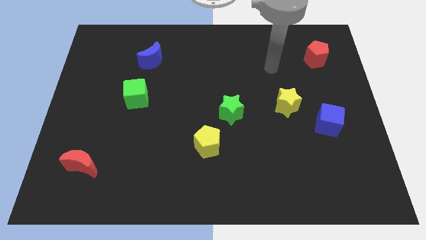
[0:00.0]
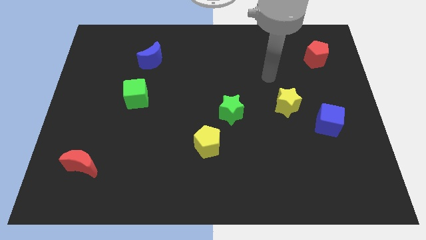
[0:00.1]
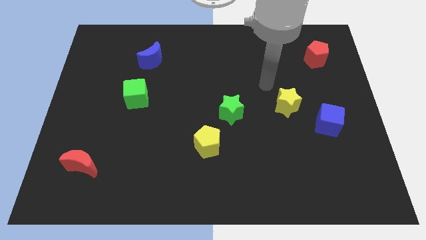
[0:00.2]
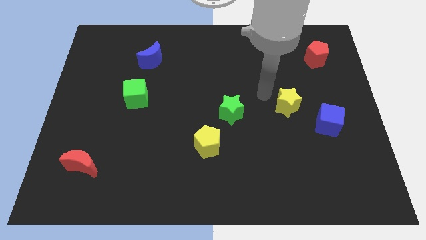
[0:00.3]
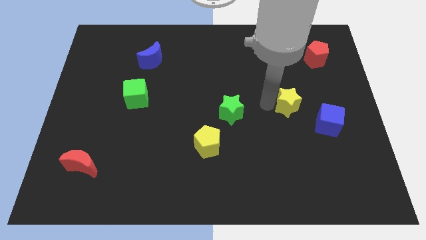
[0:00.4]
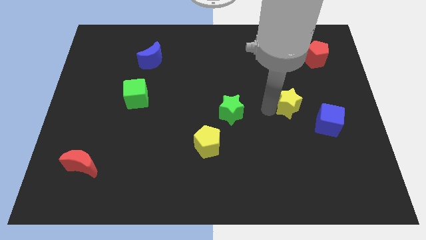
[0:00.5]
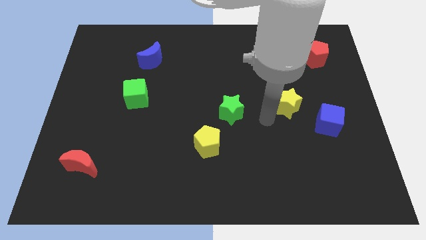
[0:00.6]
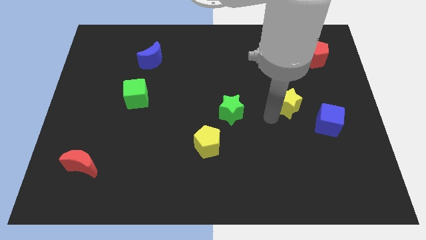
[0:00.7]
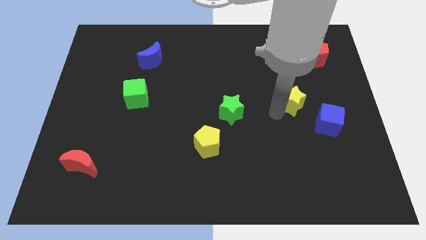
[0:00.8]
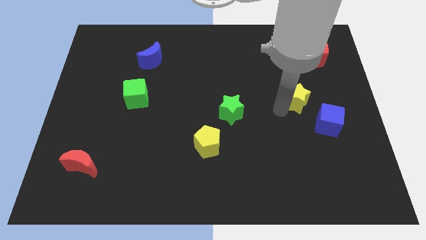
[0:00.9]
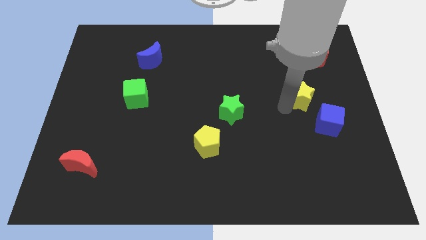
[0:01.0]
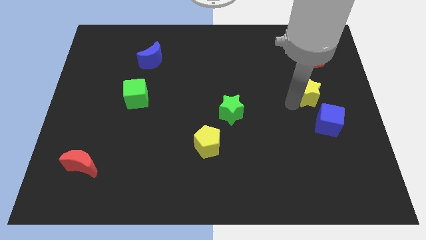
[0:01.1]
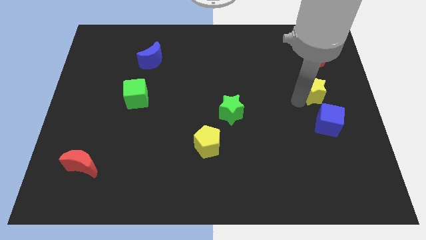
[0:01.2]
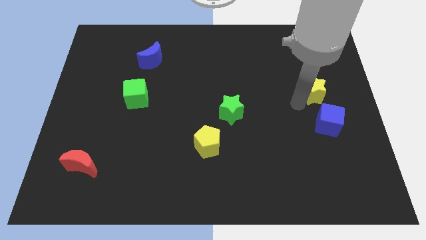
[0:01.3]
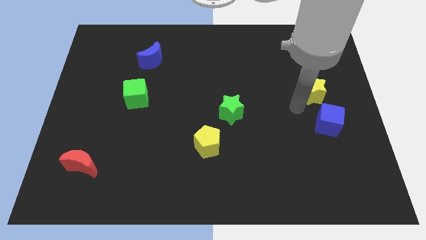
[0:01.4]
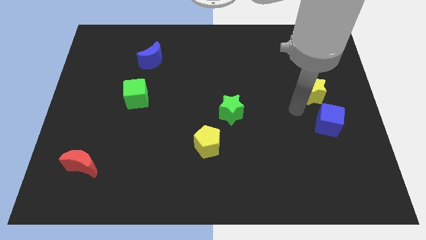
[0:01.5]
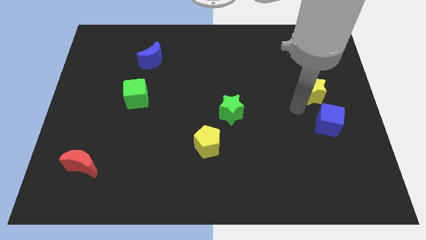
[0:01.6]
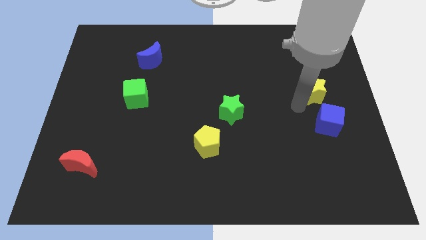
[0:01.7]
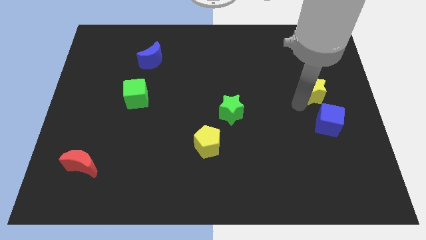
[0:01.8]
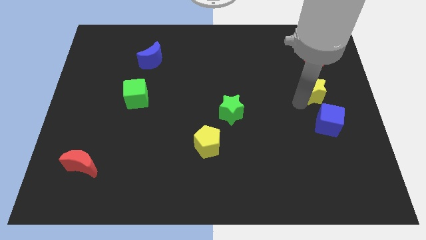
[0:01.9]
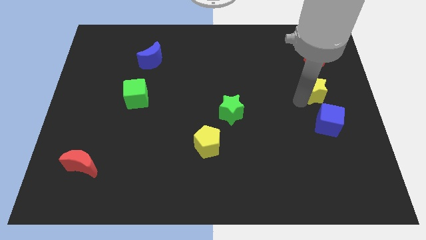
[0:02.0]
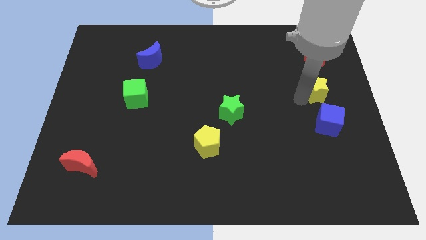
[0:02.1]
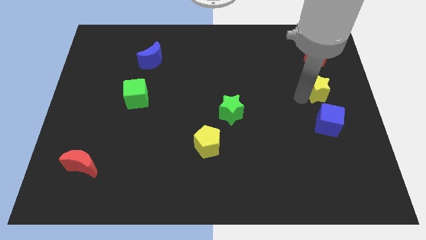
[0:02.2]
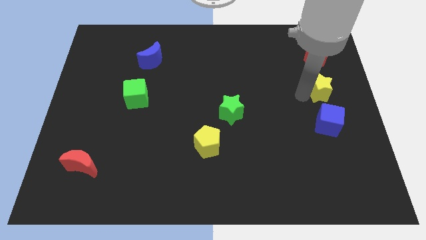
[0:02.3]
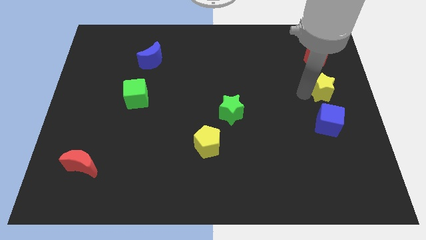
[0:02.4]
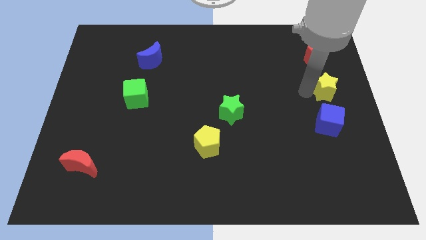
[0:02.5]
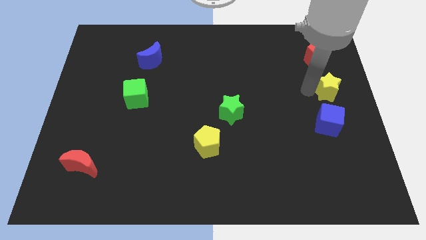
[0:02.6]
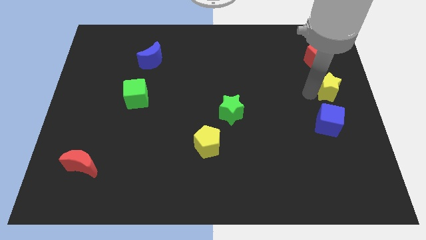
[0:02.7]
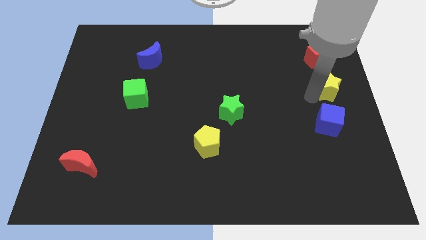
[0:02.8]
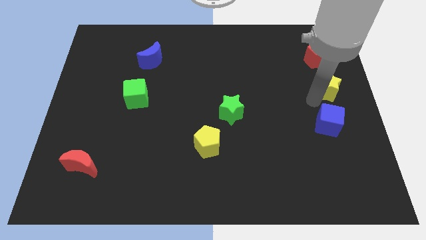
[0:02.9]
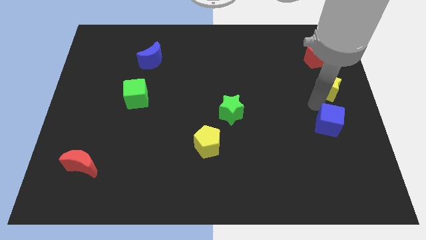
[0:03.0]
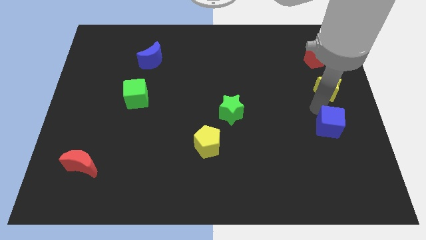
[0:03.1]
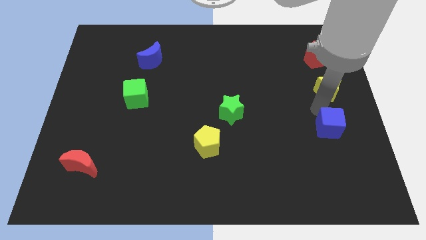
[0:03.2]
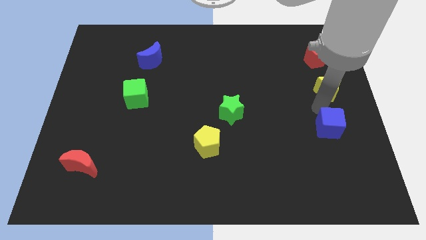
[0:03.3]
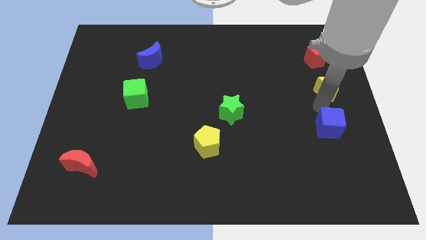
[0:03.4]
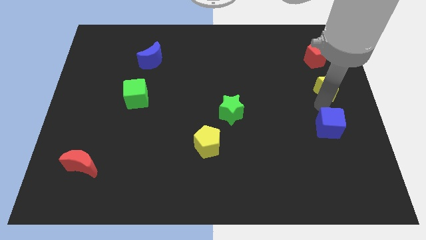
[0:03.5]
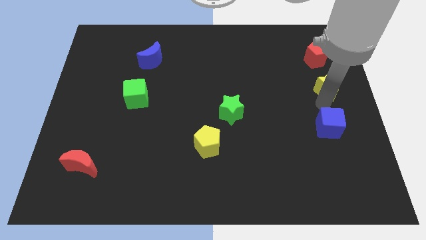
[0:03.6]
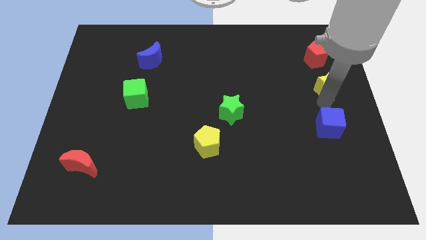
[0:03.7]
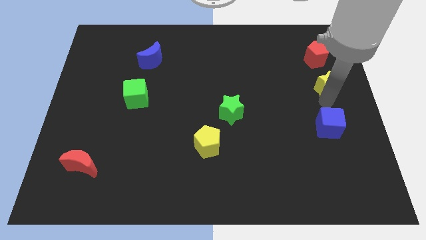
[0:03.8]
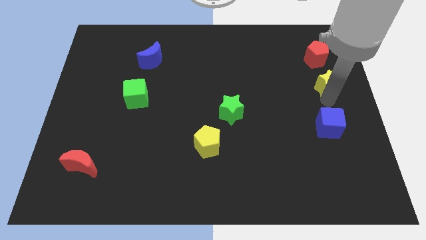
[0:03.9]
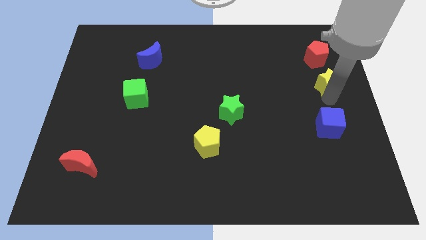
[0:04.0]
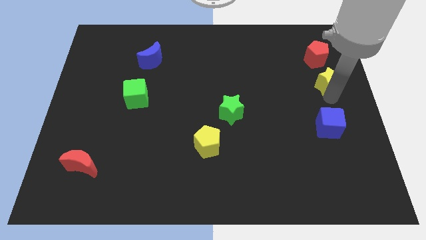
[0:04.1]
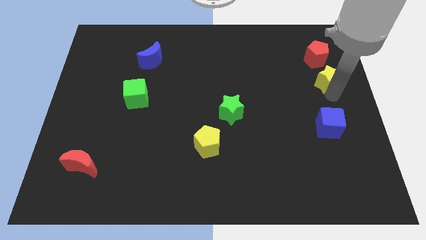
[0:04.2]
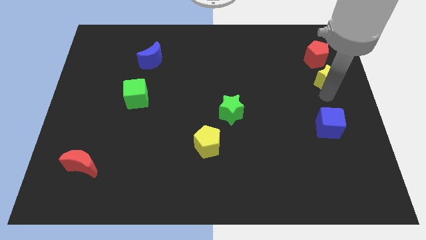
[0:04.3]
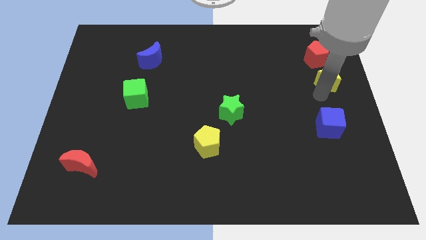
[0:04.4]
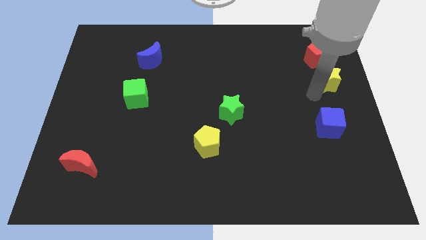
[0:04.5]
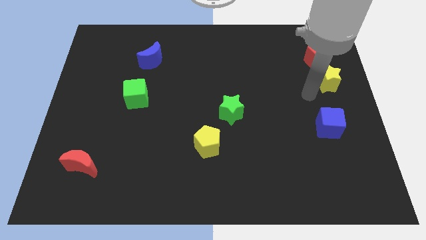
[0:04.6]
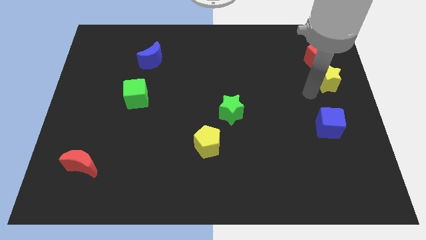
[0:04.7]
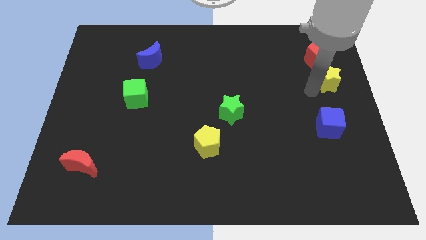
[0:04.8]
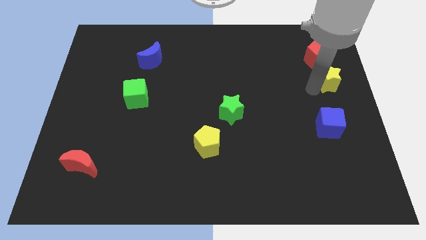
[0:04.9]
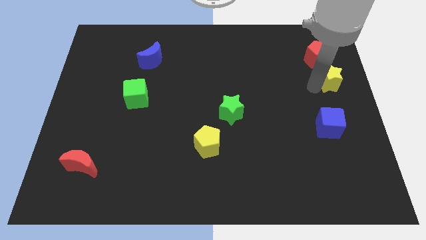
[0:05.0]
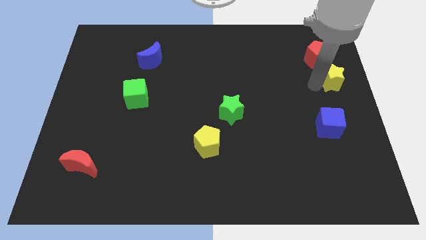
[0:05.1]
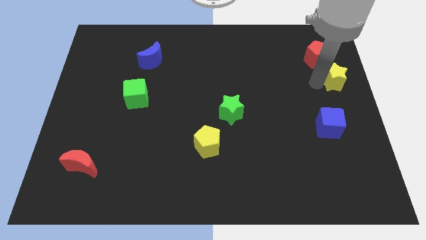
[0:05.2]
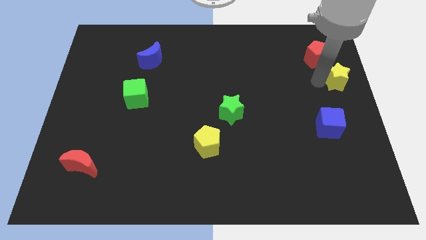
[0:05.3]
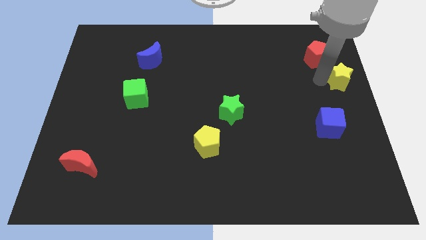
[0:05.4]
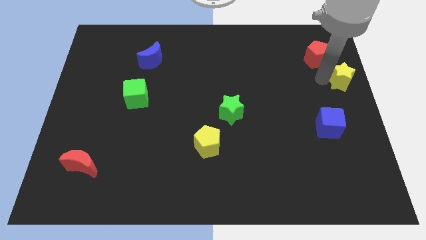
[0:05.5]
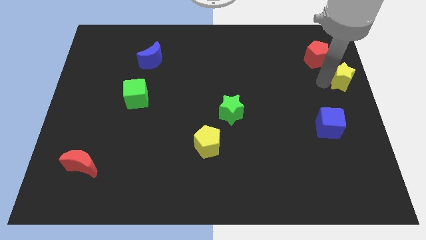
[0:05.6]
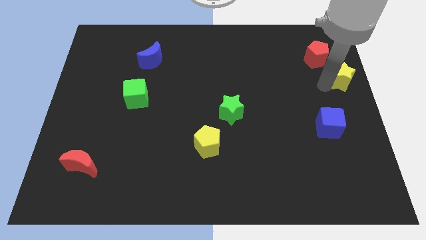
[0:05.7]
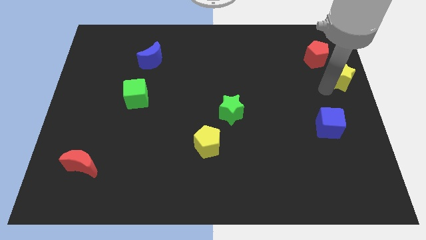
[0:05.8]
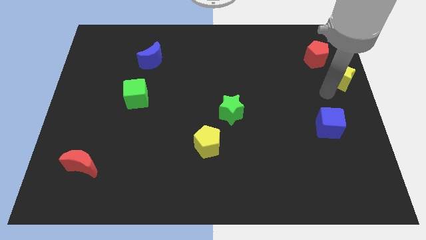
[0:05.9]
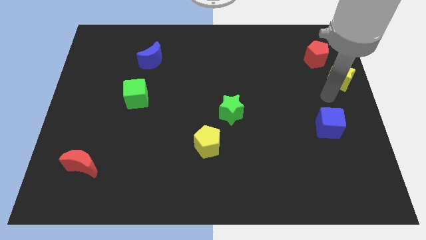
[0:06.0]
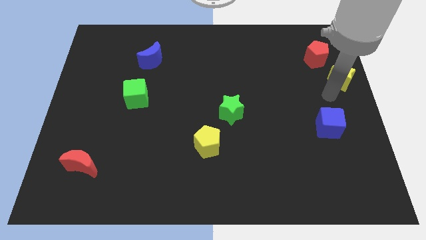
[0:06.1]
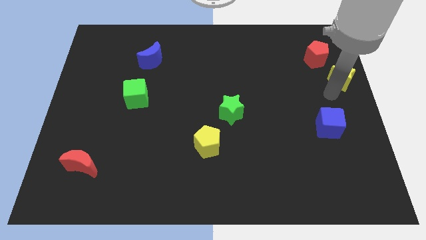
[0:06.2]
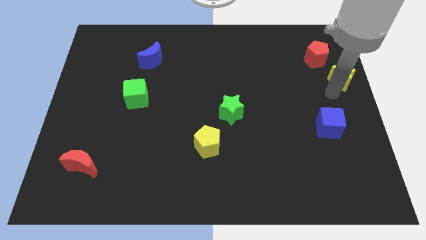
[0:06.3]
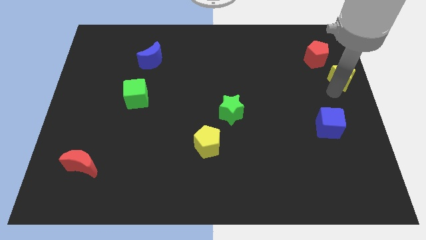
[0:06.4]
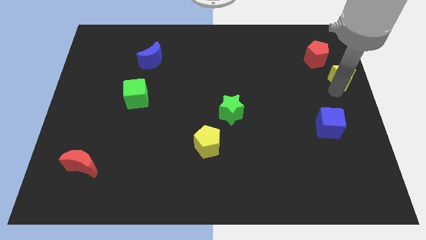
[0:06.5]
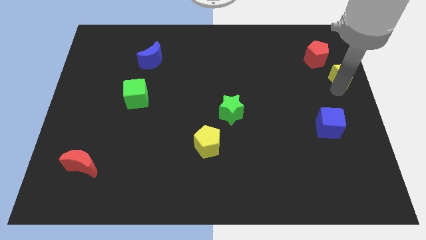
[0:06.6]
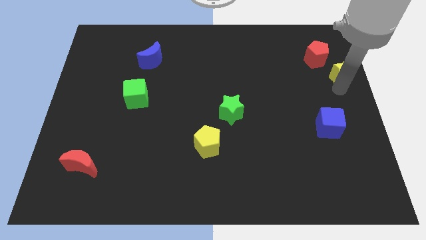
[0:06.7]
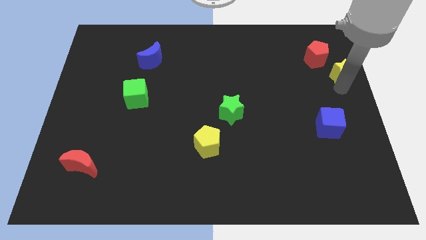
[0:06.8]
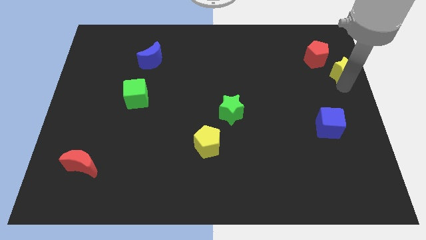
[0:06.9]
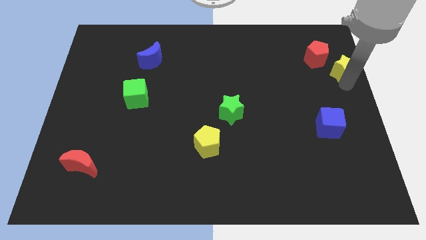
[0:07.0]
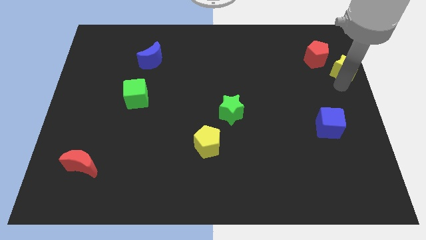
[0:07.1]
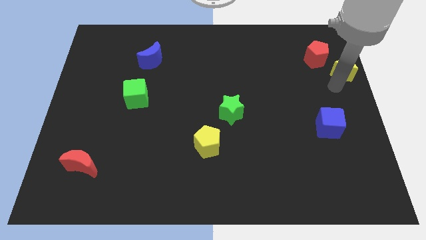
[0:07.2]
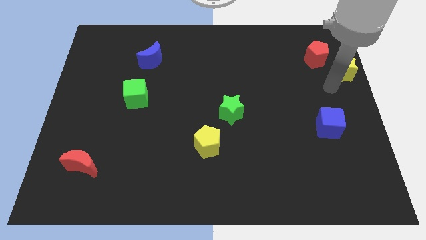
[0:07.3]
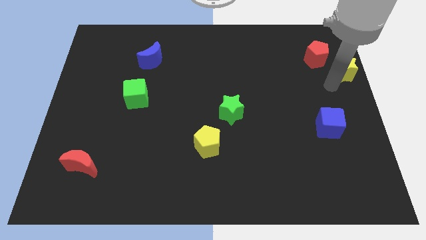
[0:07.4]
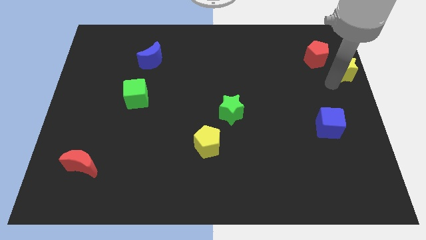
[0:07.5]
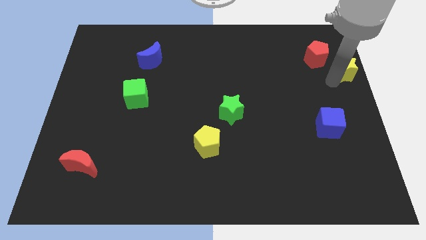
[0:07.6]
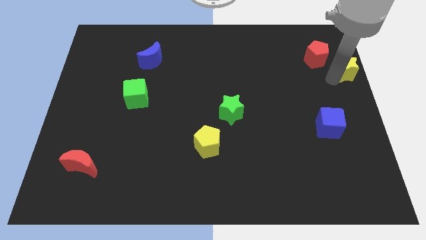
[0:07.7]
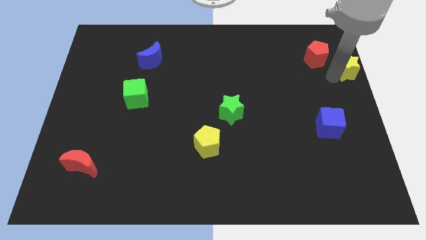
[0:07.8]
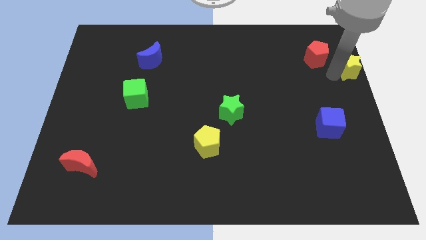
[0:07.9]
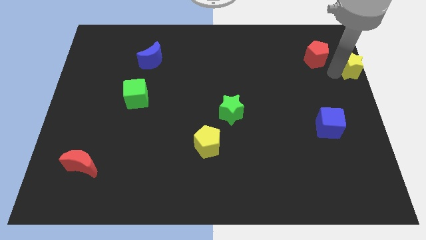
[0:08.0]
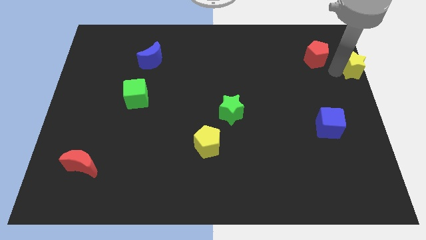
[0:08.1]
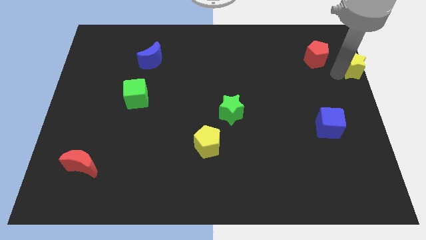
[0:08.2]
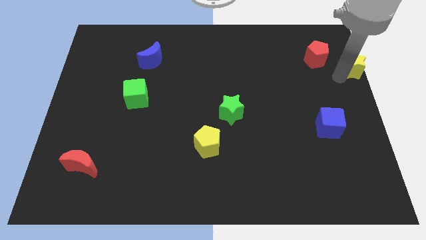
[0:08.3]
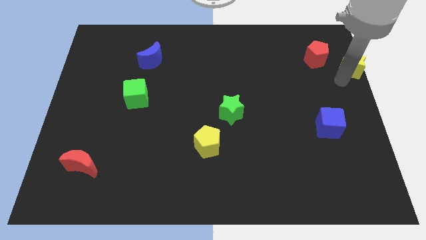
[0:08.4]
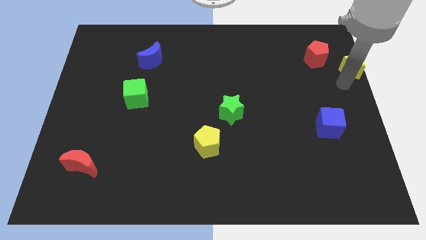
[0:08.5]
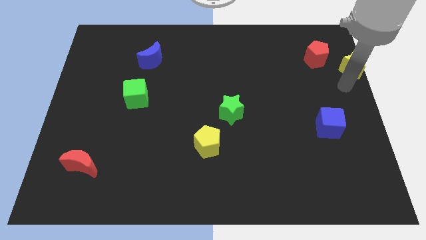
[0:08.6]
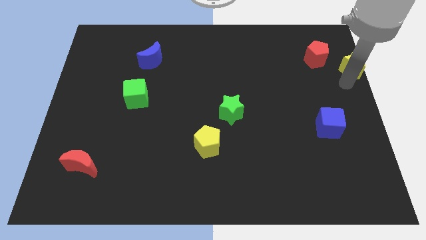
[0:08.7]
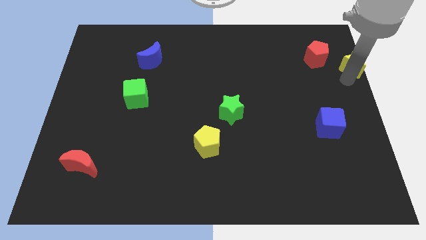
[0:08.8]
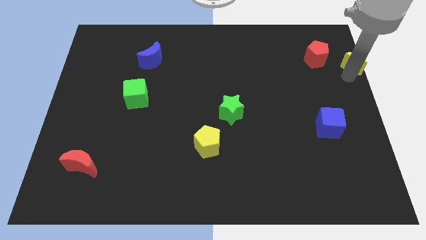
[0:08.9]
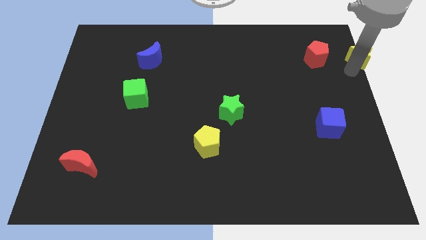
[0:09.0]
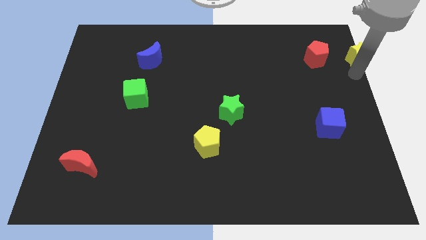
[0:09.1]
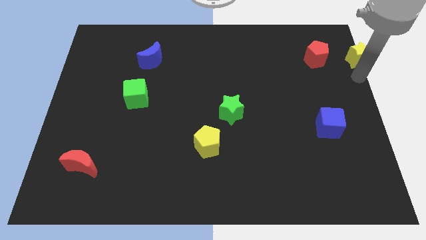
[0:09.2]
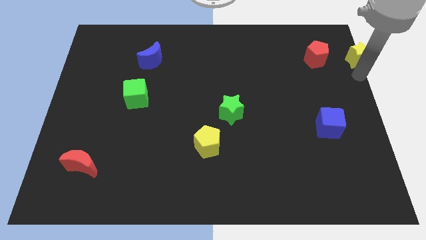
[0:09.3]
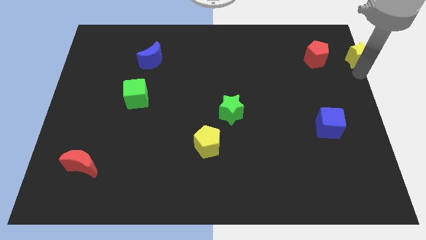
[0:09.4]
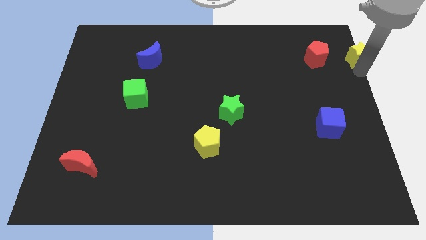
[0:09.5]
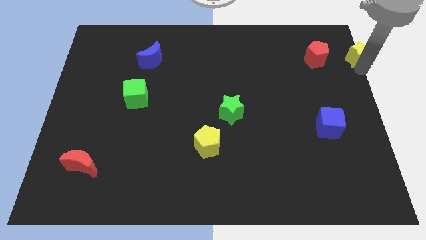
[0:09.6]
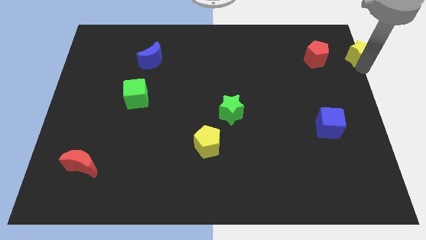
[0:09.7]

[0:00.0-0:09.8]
put the yellow star to the top right
